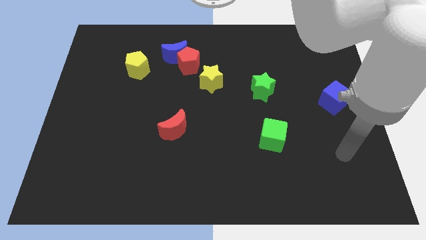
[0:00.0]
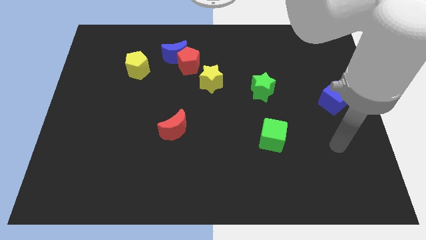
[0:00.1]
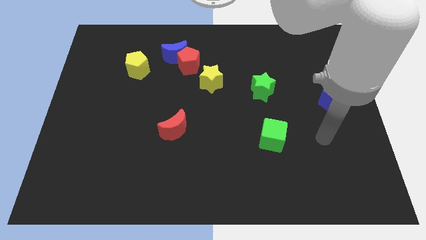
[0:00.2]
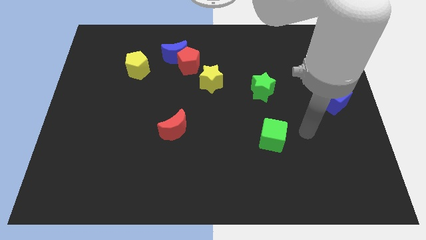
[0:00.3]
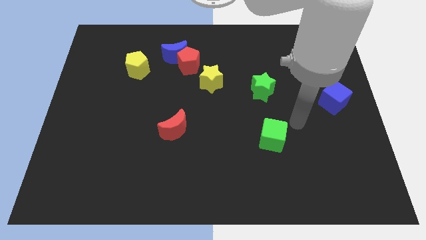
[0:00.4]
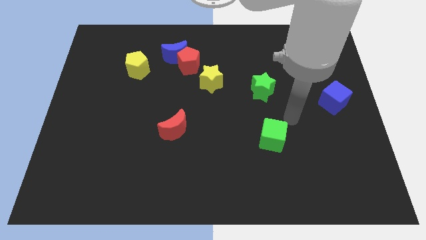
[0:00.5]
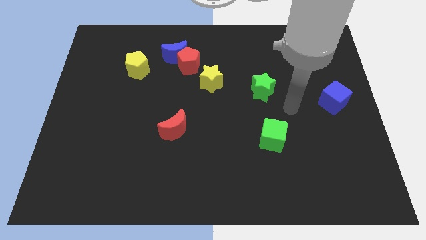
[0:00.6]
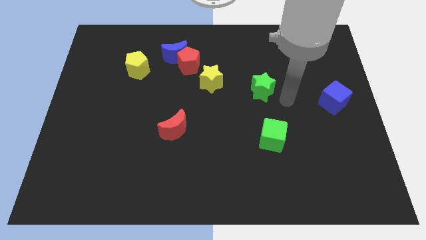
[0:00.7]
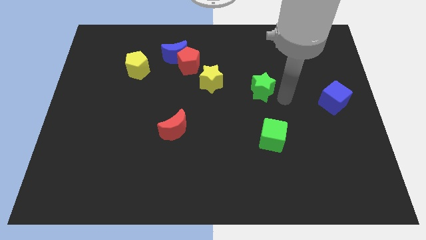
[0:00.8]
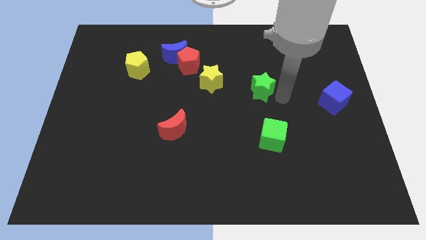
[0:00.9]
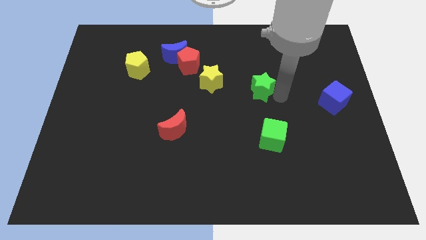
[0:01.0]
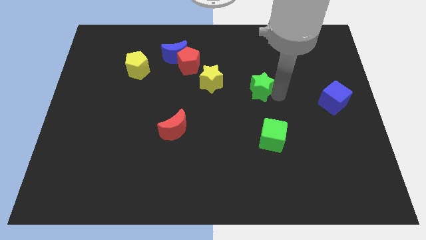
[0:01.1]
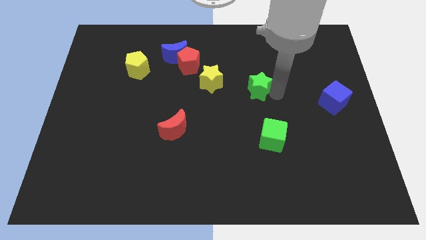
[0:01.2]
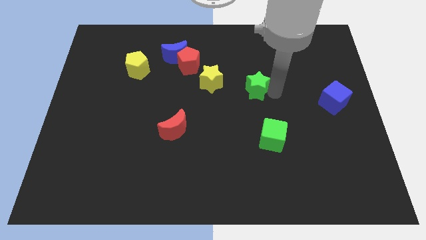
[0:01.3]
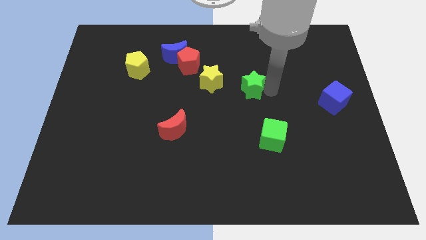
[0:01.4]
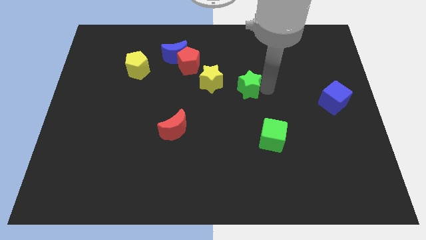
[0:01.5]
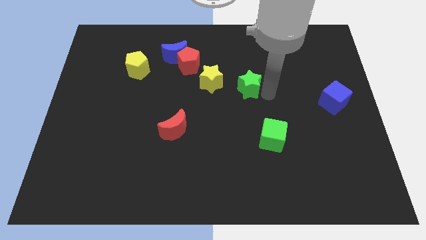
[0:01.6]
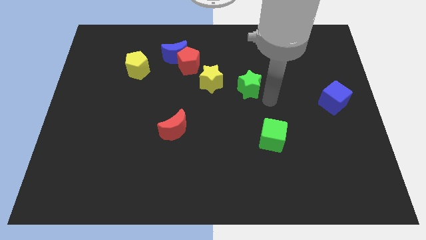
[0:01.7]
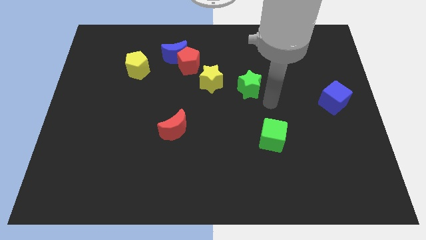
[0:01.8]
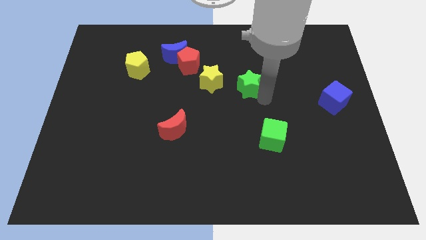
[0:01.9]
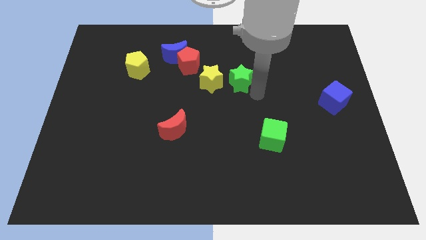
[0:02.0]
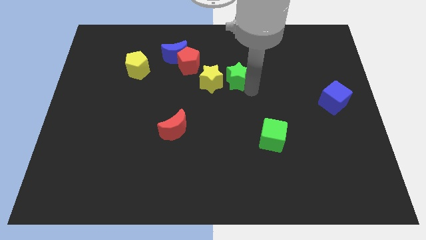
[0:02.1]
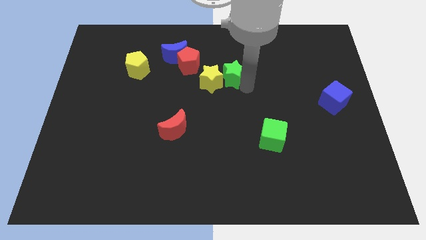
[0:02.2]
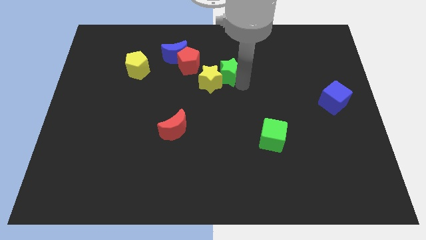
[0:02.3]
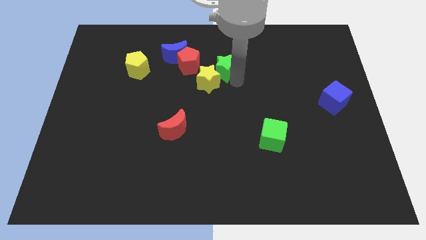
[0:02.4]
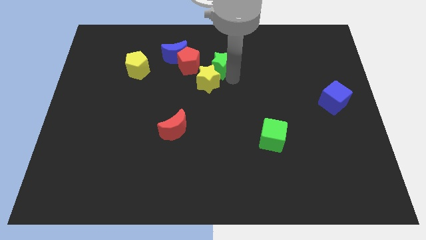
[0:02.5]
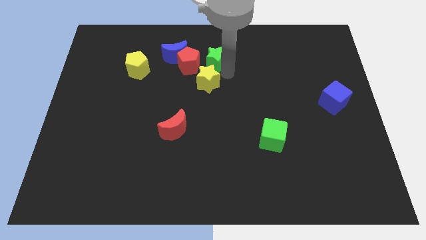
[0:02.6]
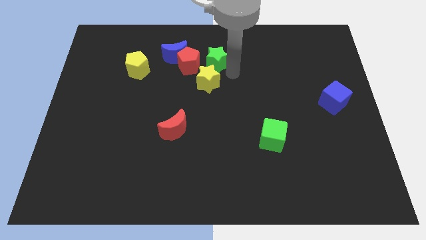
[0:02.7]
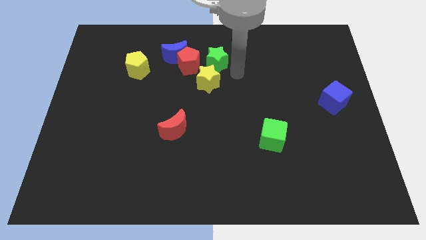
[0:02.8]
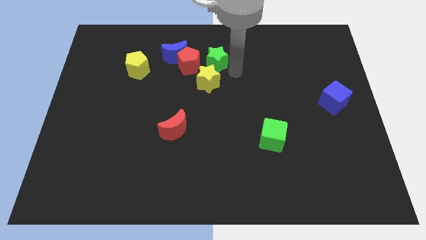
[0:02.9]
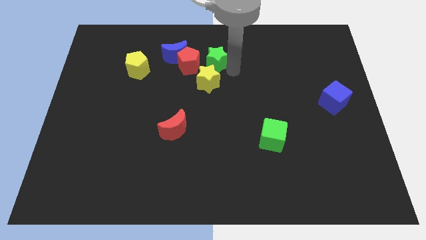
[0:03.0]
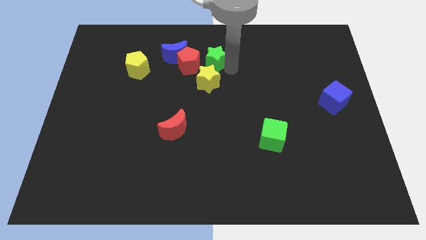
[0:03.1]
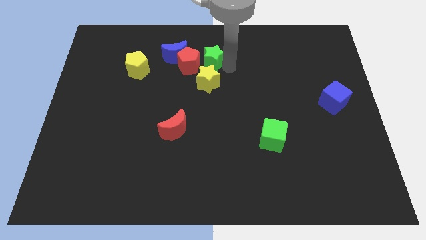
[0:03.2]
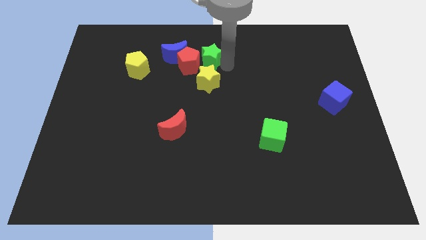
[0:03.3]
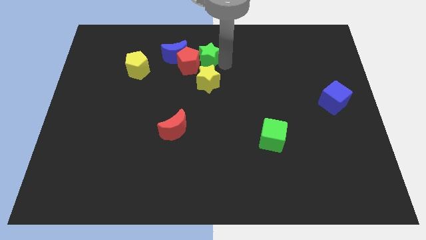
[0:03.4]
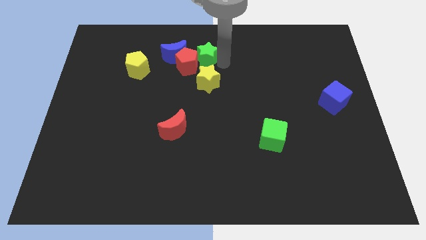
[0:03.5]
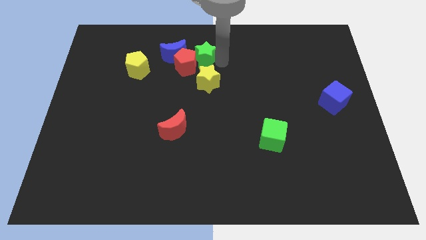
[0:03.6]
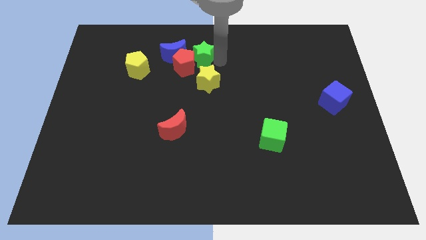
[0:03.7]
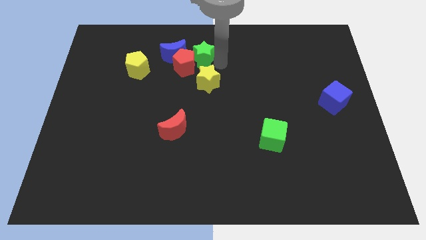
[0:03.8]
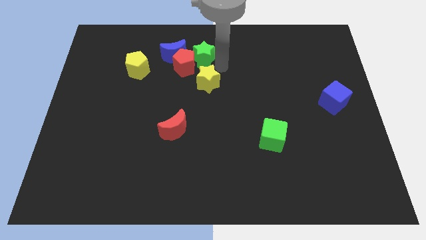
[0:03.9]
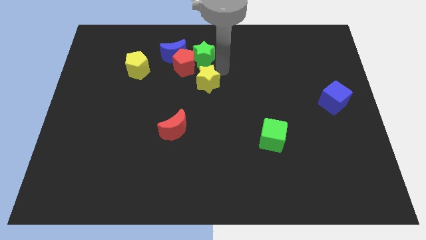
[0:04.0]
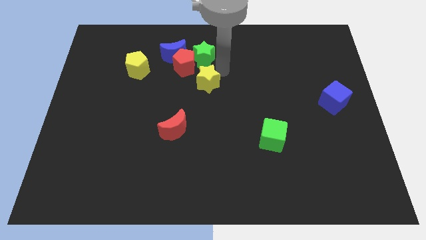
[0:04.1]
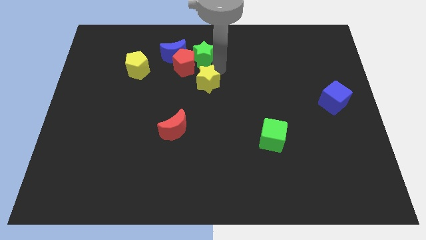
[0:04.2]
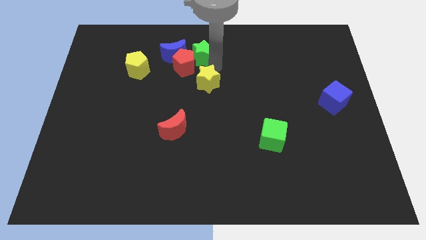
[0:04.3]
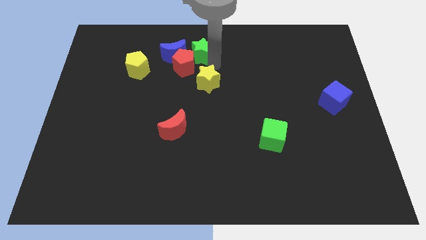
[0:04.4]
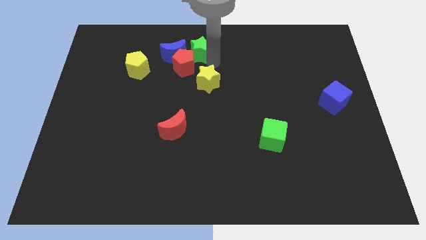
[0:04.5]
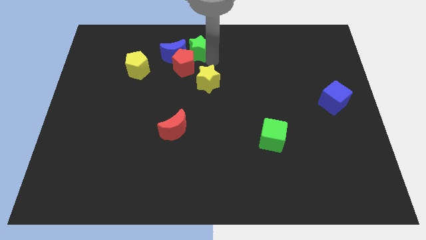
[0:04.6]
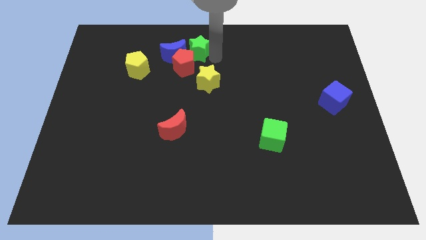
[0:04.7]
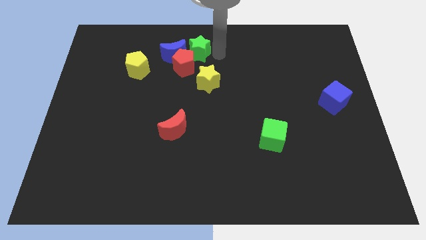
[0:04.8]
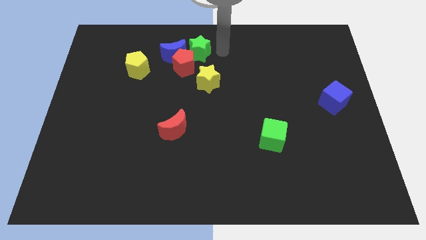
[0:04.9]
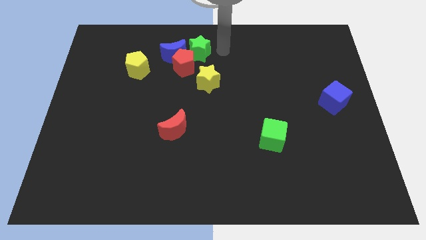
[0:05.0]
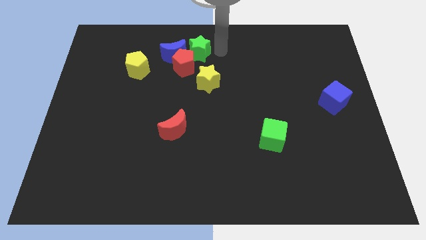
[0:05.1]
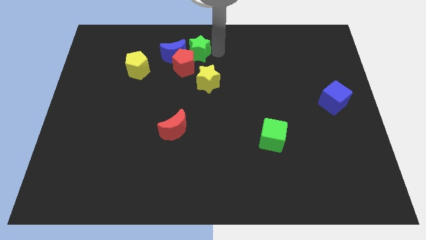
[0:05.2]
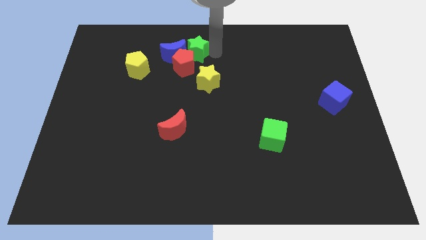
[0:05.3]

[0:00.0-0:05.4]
slide the green star towards the blue moon

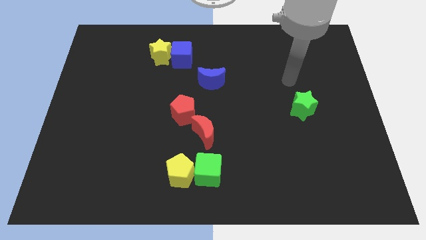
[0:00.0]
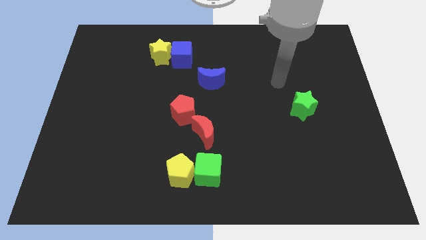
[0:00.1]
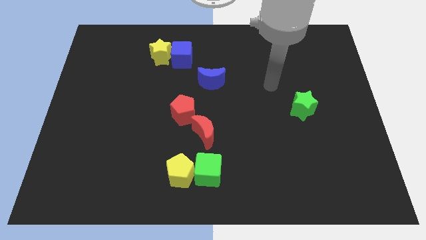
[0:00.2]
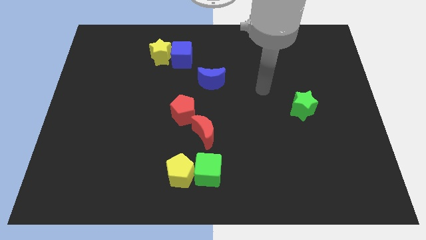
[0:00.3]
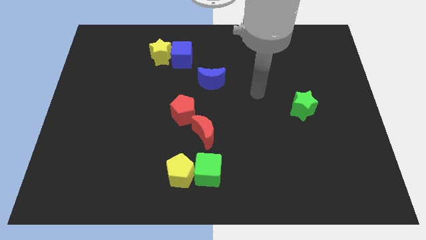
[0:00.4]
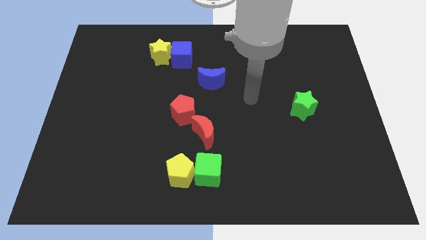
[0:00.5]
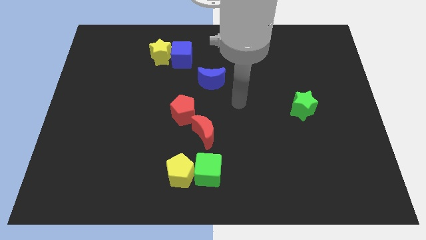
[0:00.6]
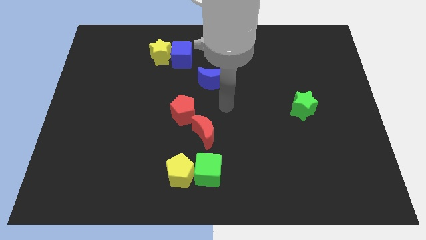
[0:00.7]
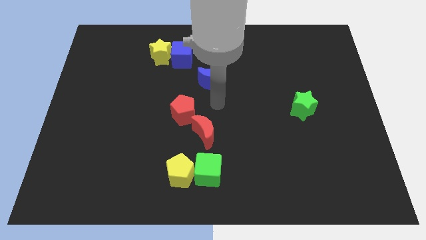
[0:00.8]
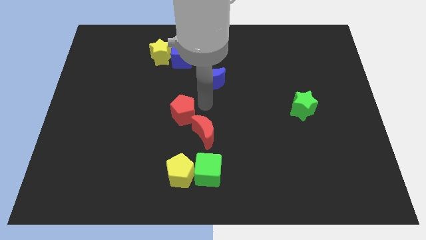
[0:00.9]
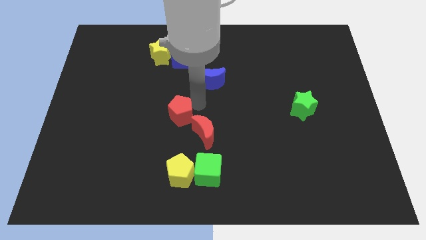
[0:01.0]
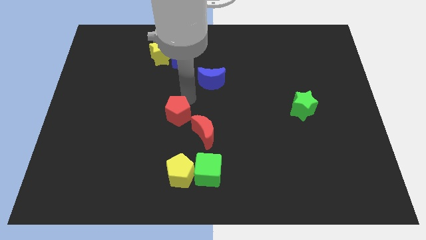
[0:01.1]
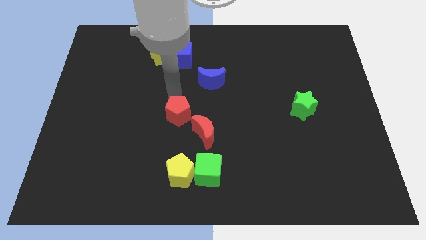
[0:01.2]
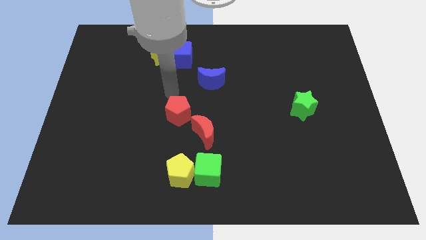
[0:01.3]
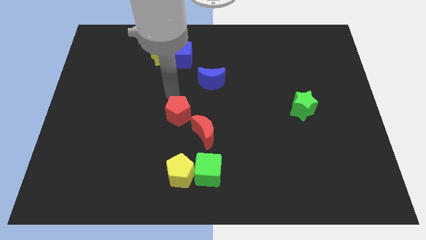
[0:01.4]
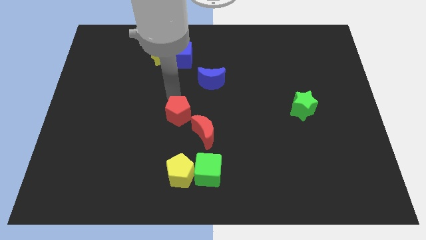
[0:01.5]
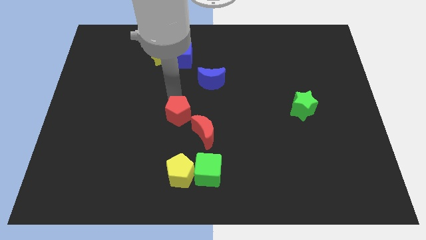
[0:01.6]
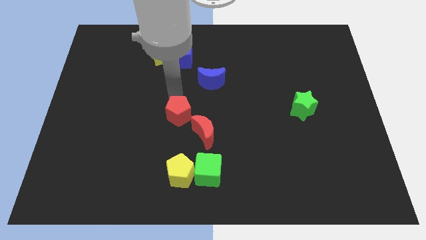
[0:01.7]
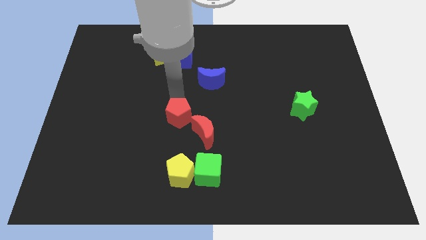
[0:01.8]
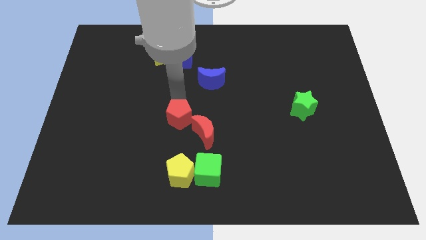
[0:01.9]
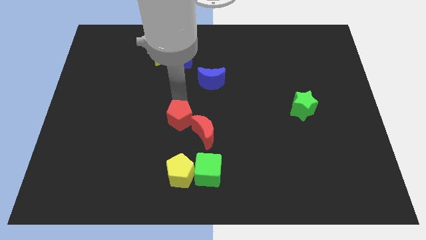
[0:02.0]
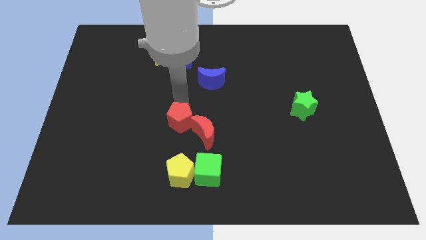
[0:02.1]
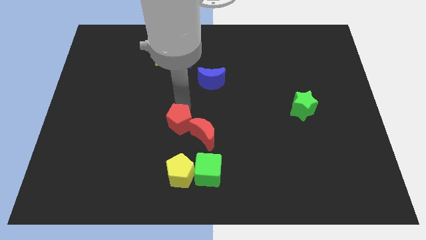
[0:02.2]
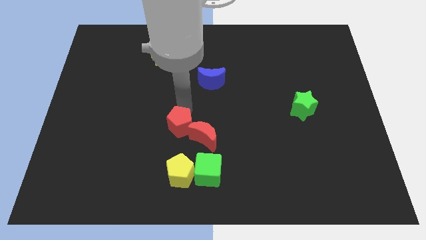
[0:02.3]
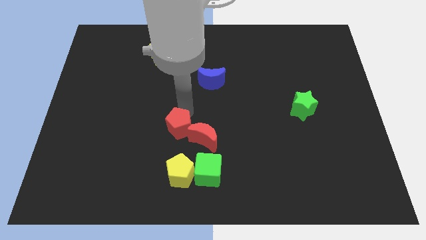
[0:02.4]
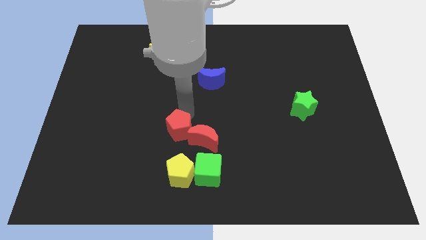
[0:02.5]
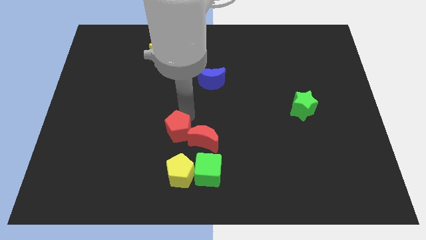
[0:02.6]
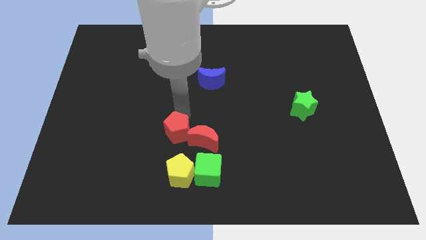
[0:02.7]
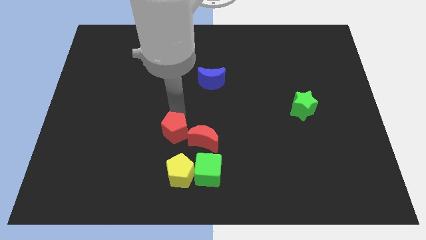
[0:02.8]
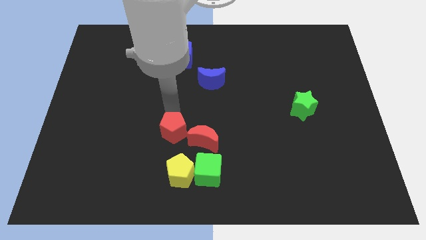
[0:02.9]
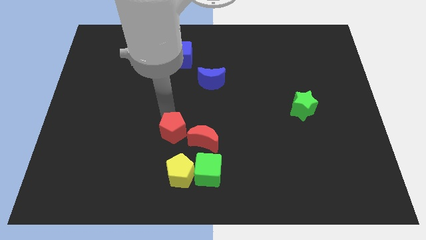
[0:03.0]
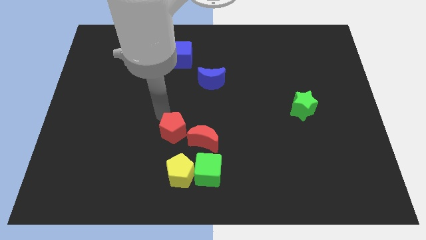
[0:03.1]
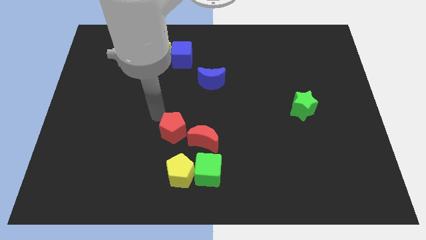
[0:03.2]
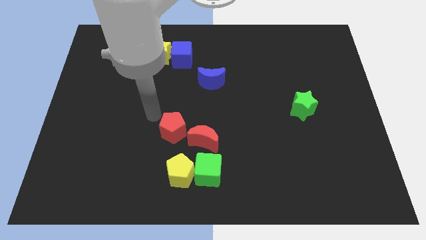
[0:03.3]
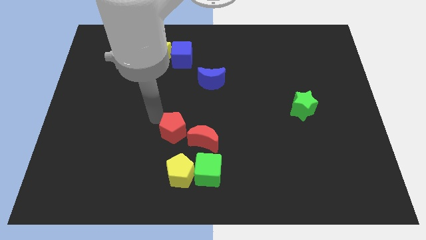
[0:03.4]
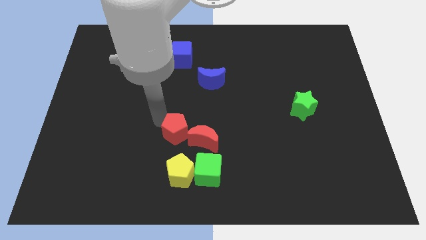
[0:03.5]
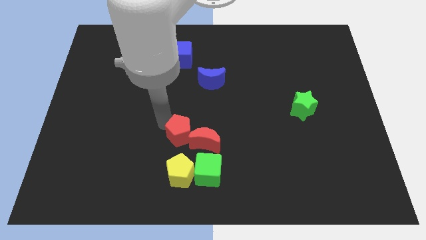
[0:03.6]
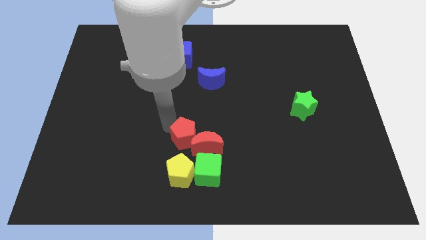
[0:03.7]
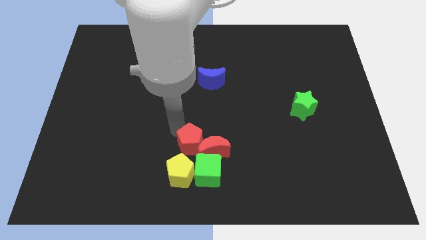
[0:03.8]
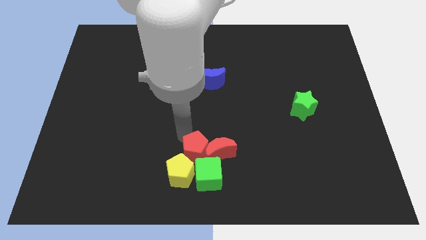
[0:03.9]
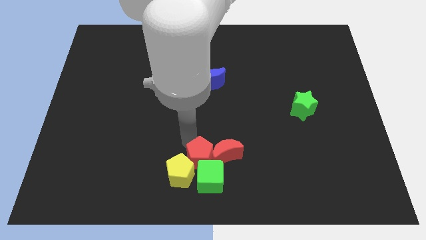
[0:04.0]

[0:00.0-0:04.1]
move the red pentagon towards the green cube
